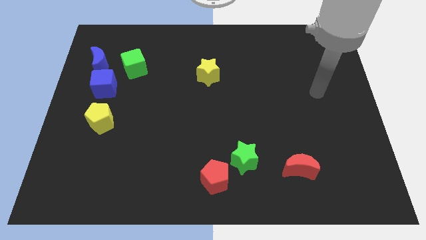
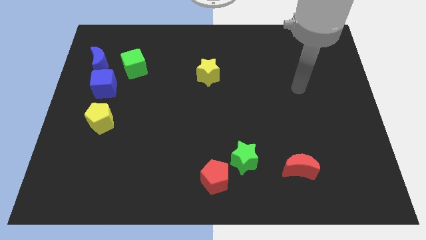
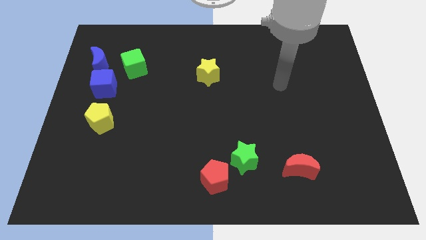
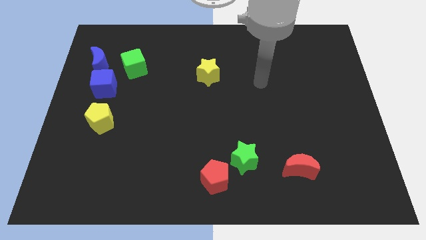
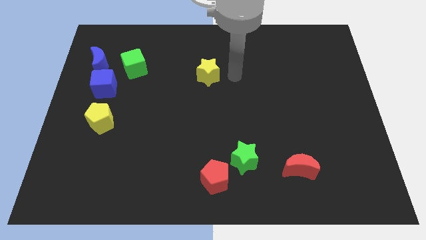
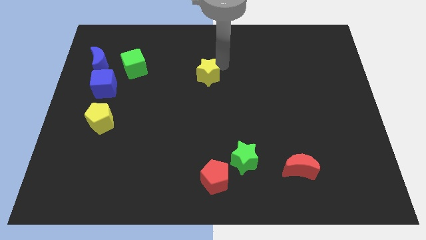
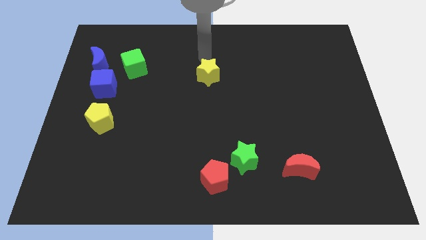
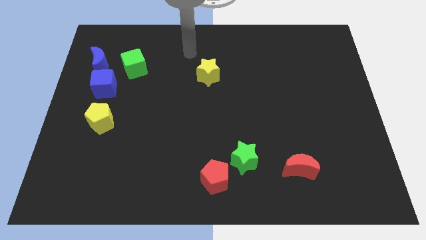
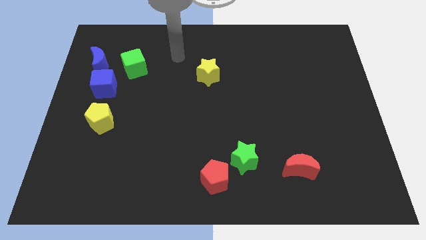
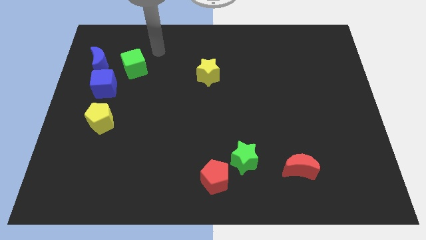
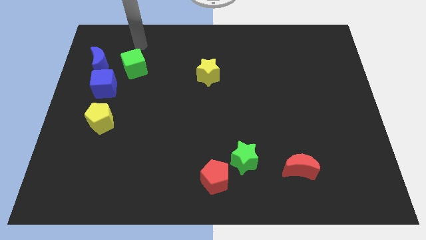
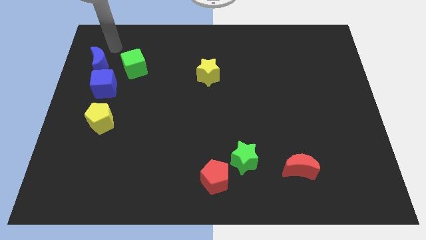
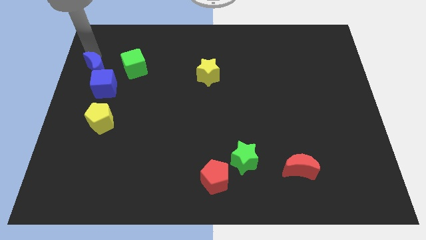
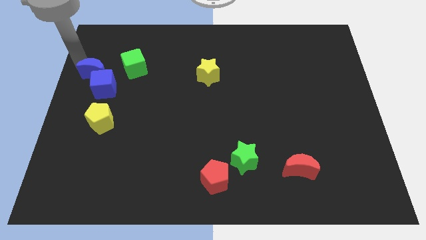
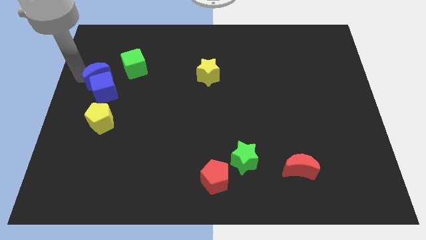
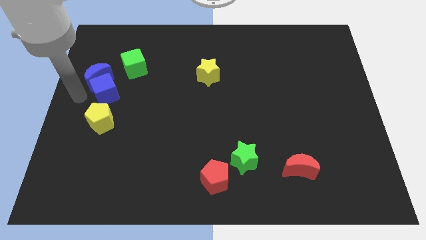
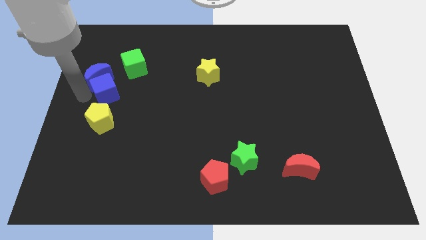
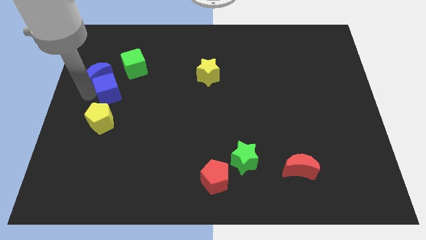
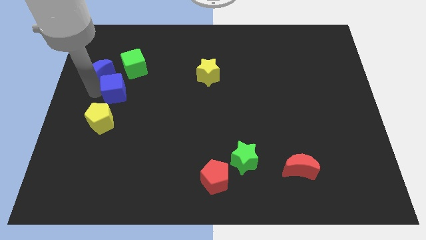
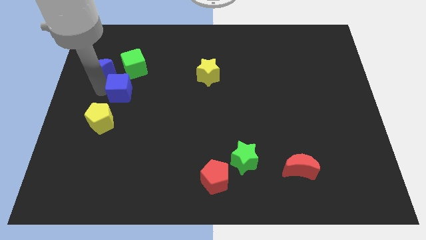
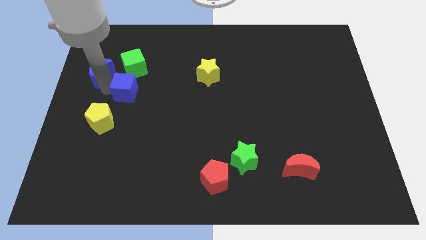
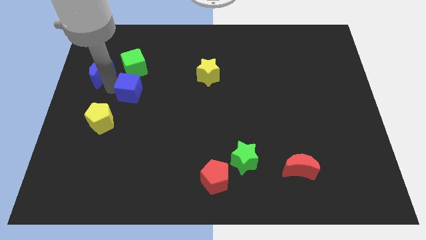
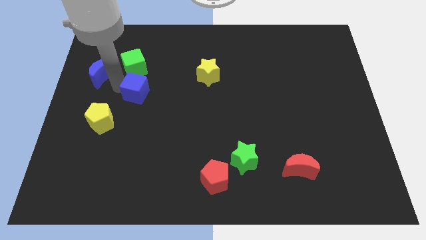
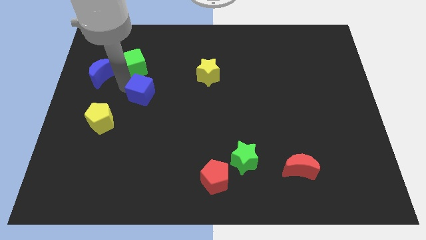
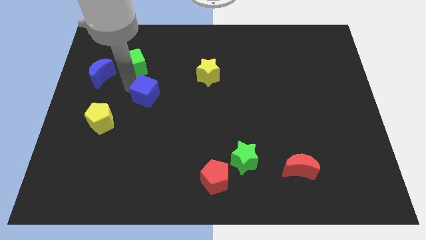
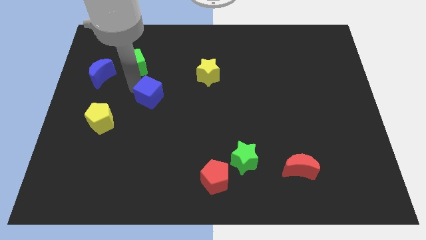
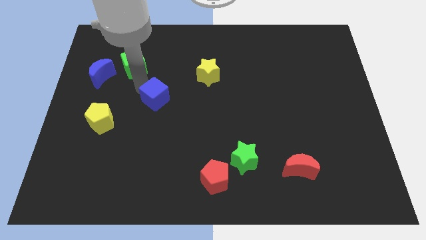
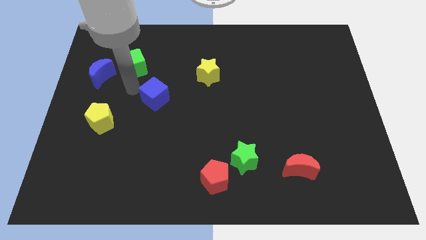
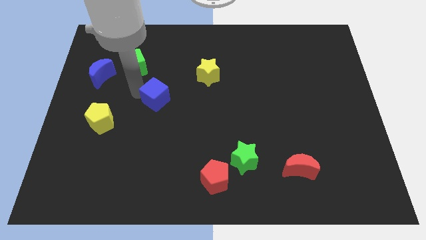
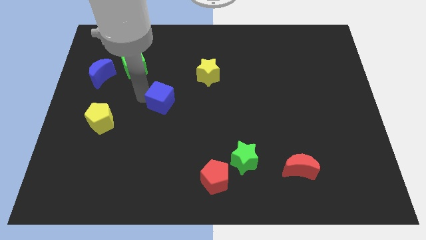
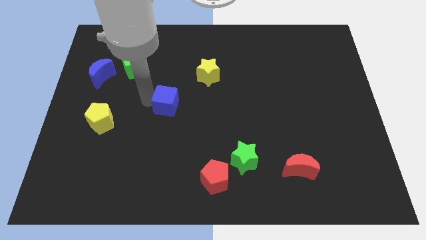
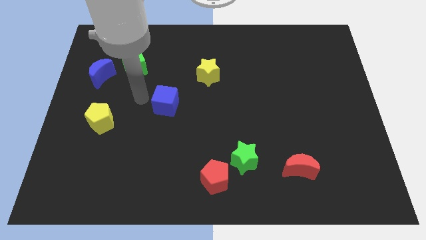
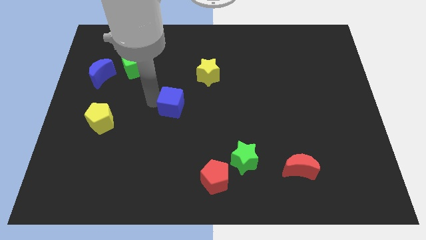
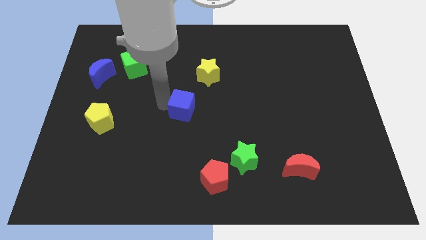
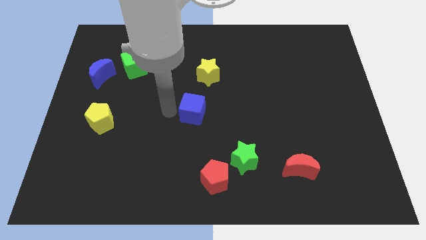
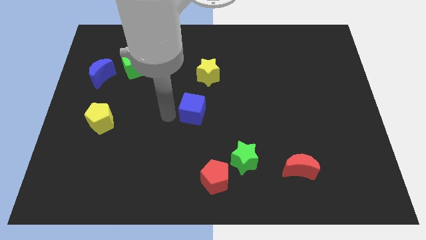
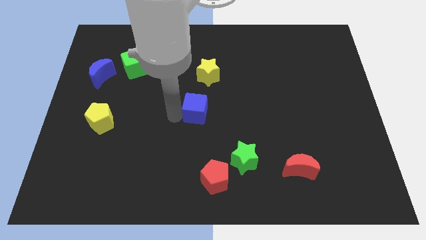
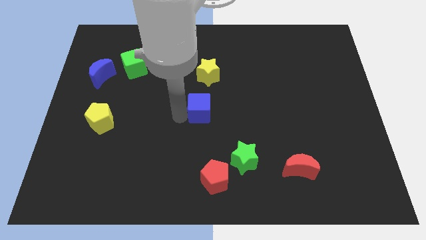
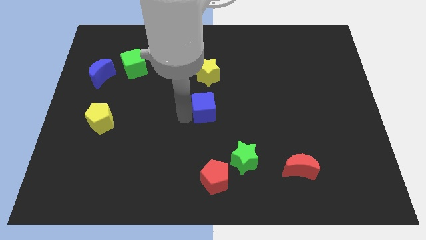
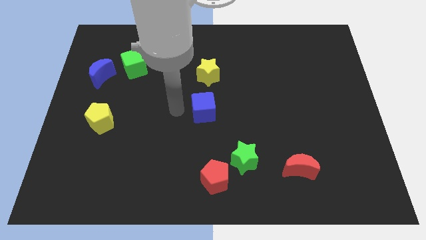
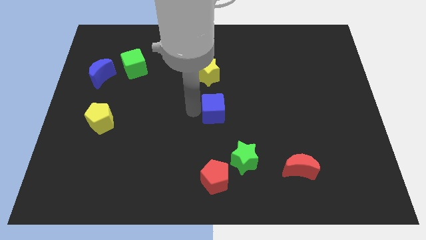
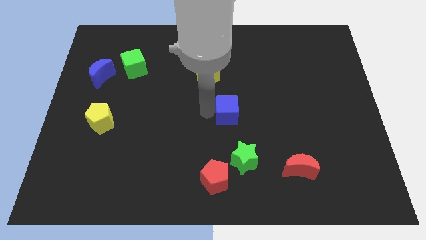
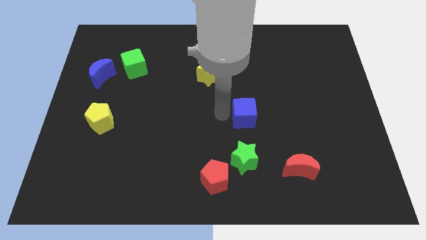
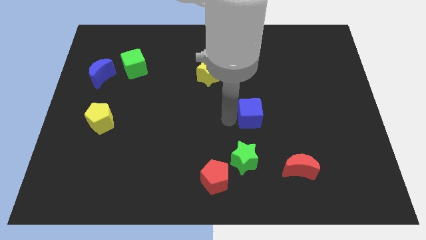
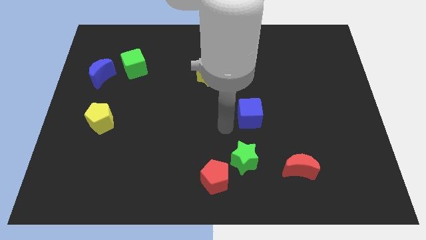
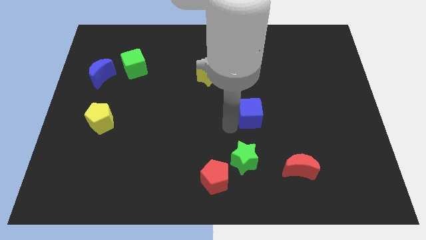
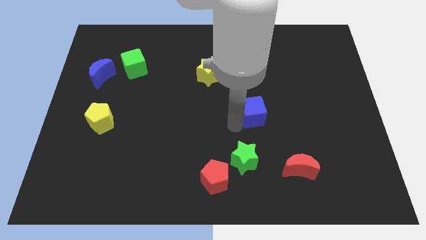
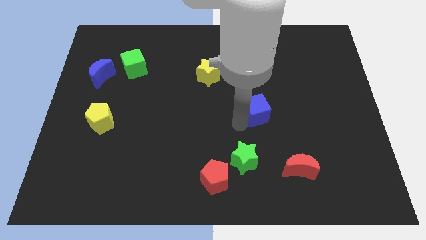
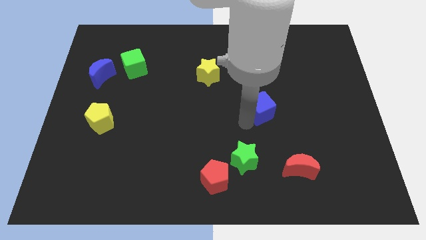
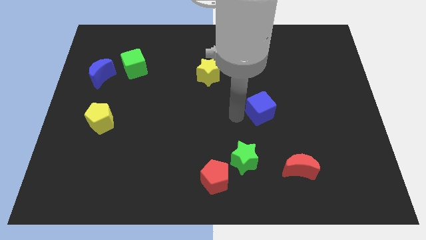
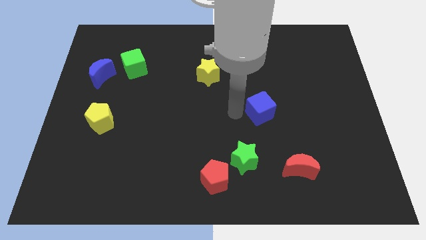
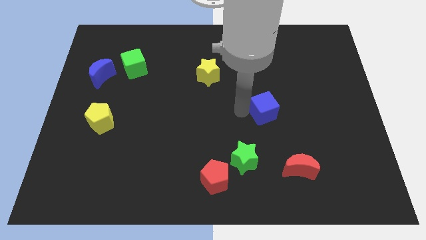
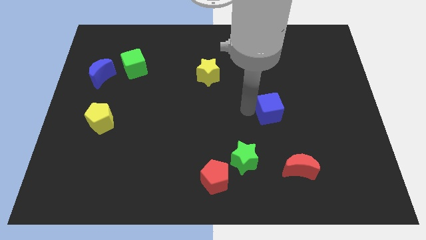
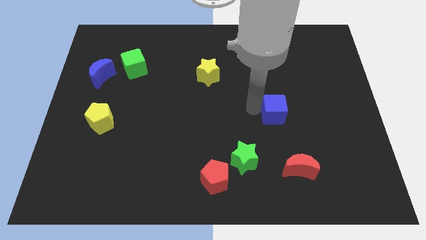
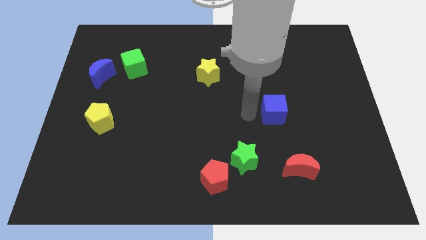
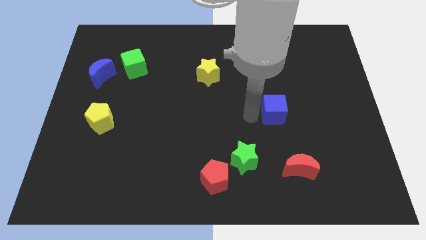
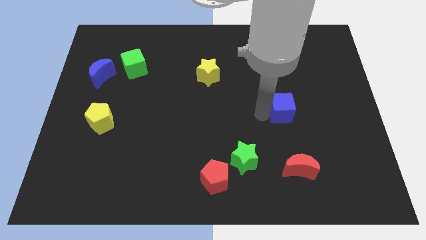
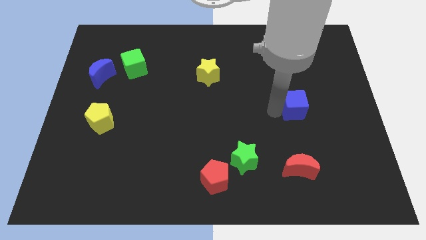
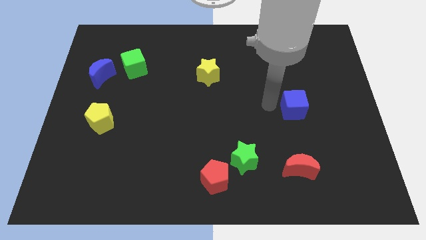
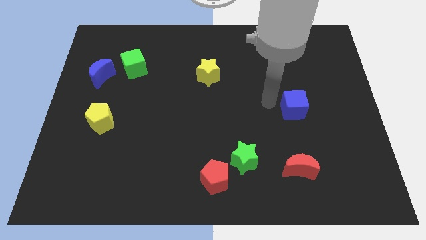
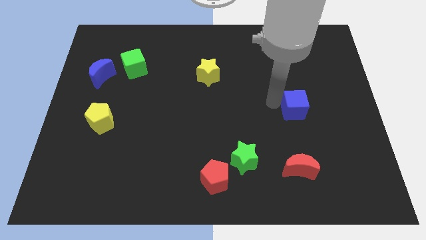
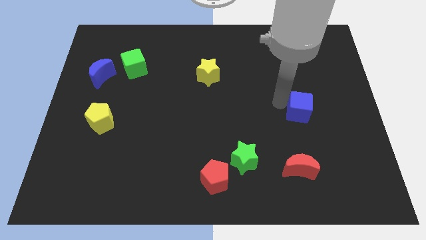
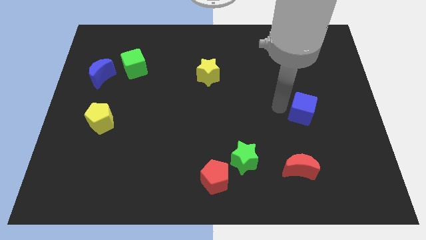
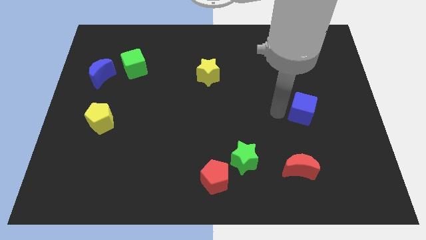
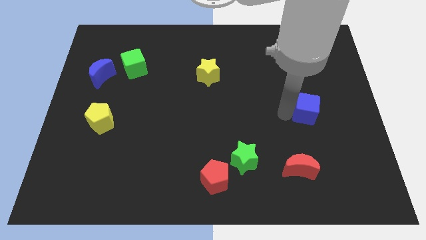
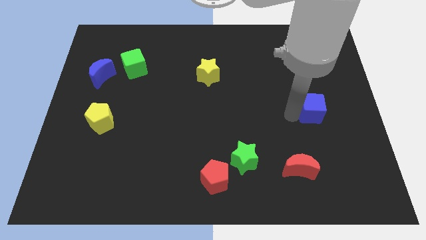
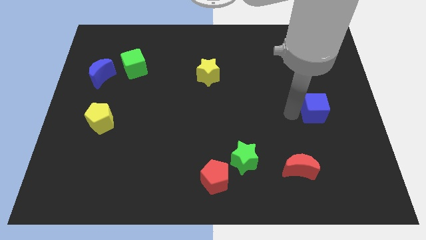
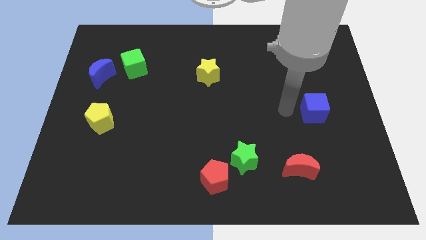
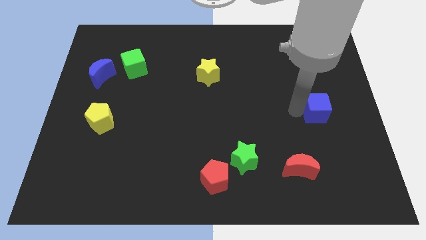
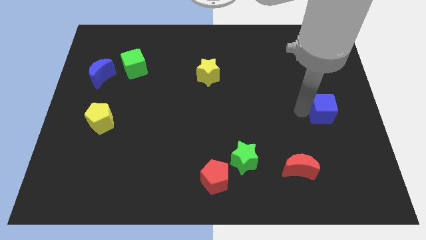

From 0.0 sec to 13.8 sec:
push the blue cube to the right side
